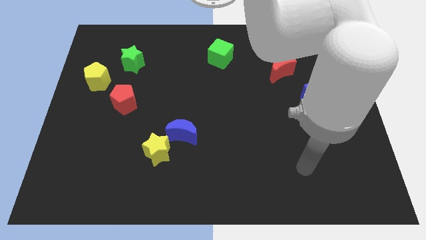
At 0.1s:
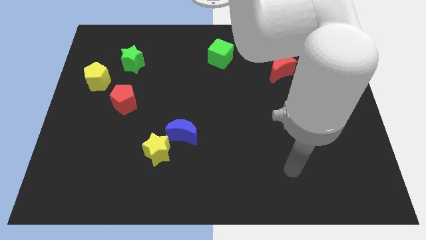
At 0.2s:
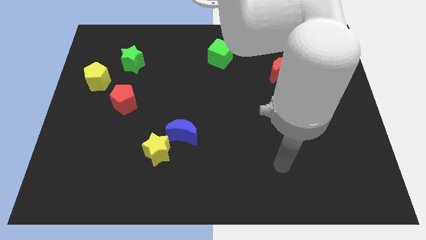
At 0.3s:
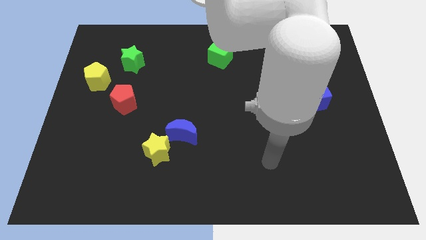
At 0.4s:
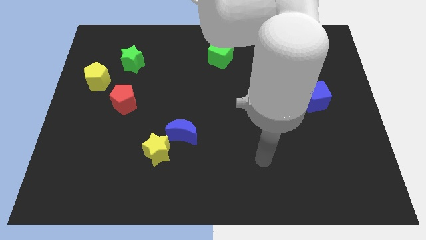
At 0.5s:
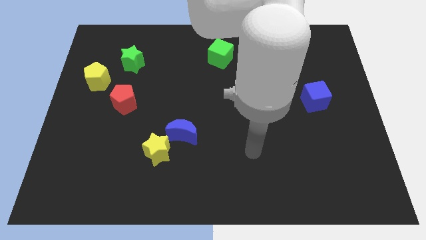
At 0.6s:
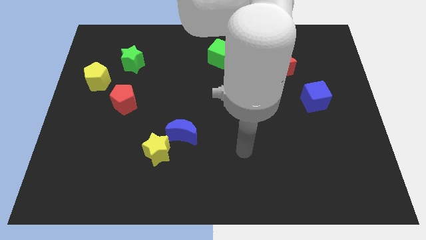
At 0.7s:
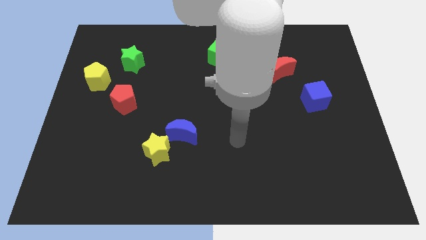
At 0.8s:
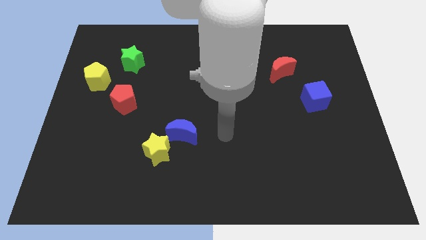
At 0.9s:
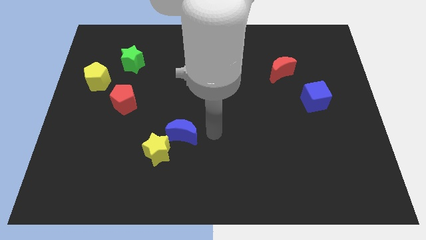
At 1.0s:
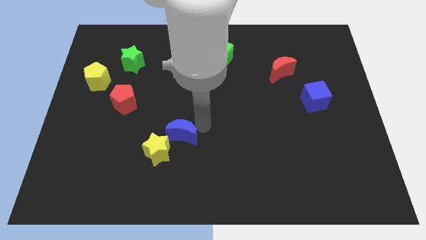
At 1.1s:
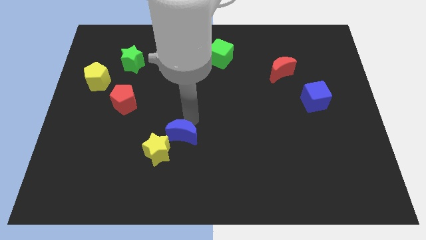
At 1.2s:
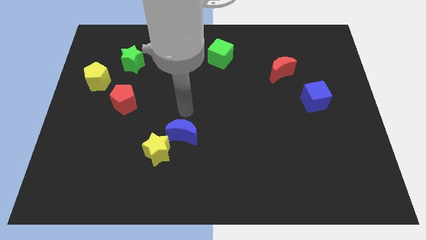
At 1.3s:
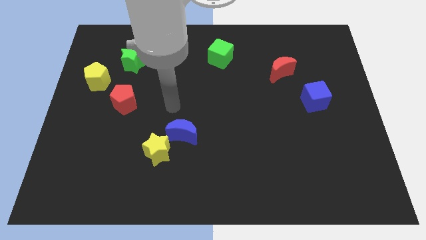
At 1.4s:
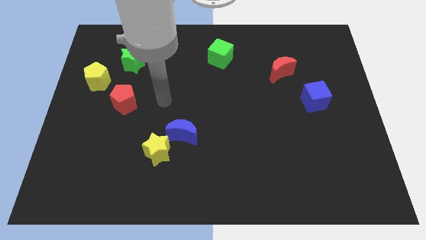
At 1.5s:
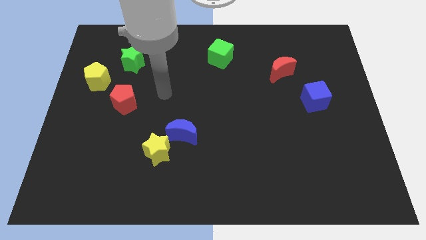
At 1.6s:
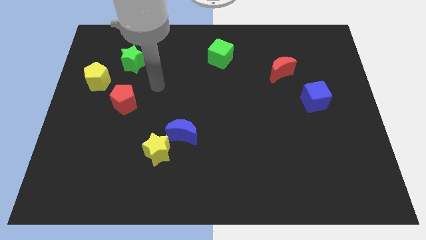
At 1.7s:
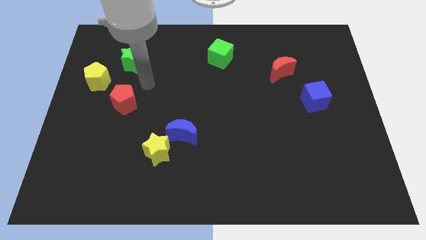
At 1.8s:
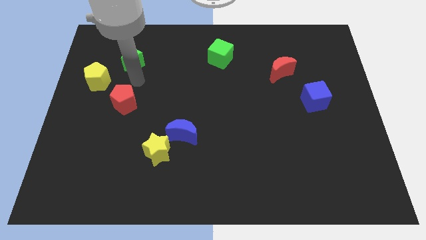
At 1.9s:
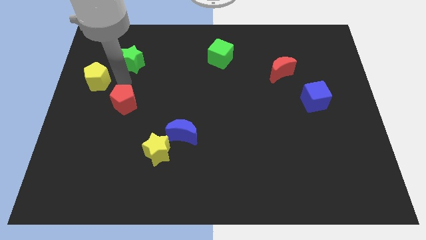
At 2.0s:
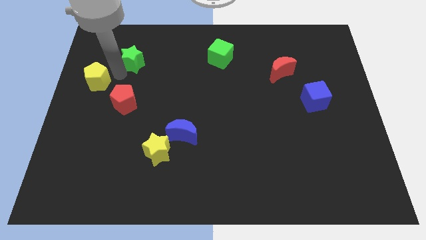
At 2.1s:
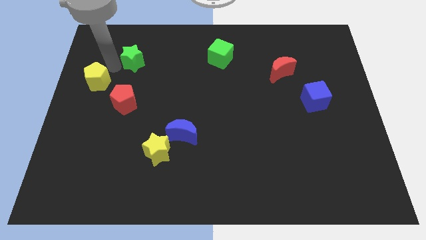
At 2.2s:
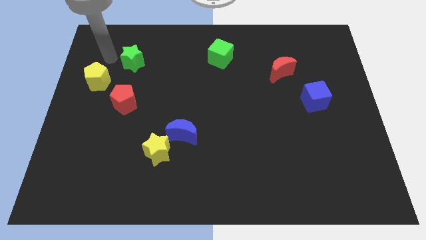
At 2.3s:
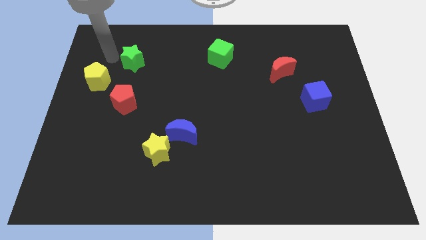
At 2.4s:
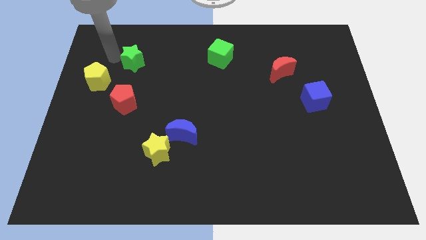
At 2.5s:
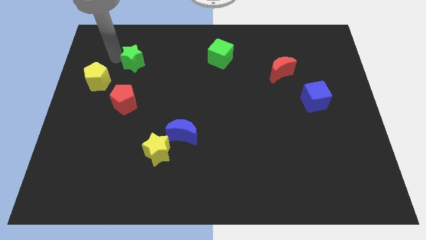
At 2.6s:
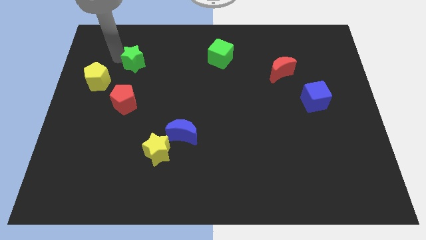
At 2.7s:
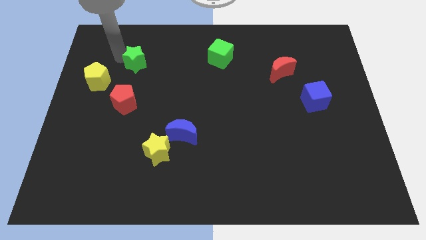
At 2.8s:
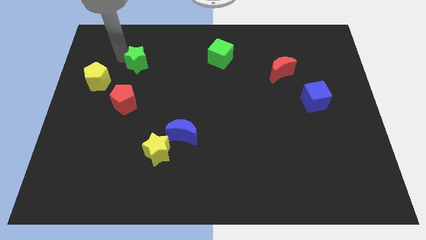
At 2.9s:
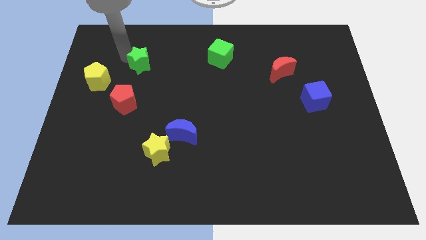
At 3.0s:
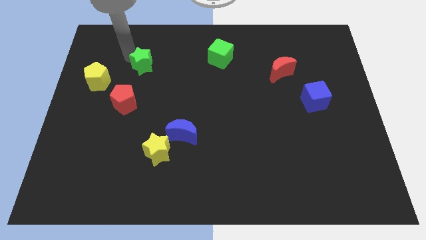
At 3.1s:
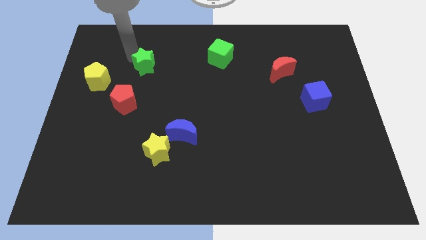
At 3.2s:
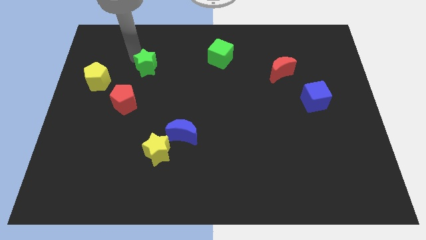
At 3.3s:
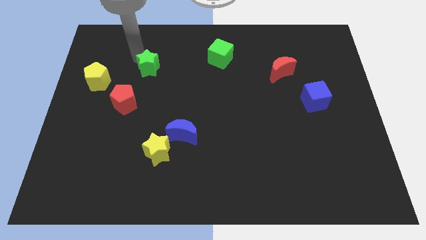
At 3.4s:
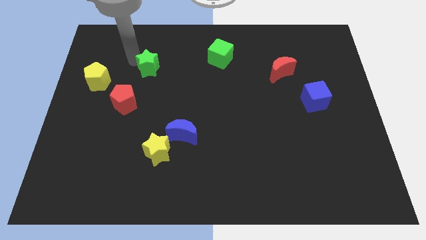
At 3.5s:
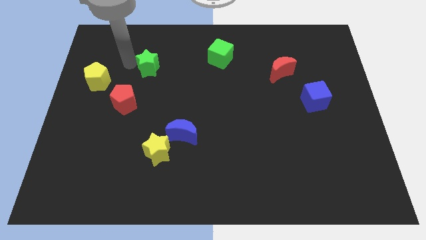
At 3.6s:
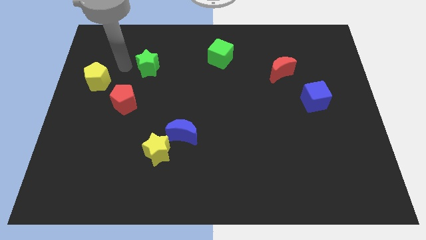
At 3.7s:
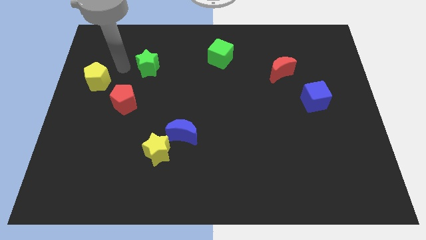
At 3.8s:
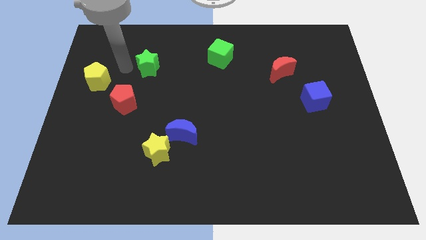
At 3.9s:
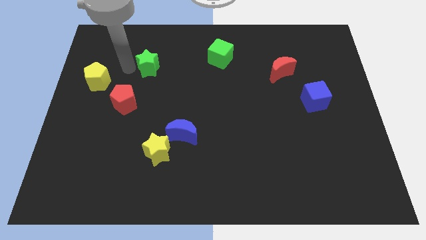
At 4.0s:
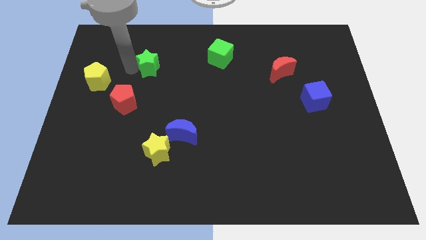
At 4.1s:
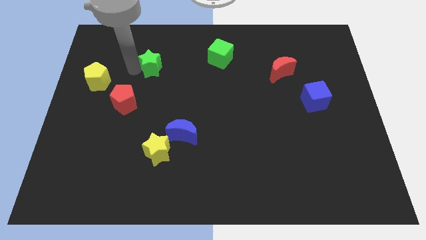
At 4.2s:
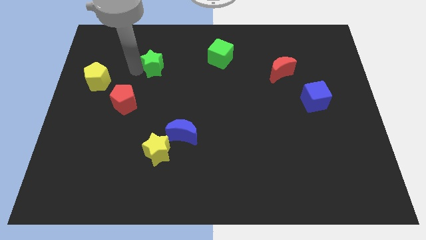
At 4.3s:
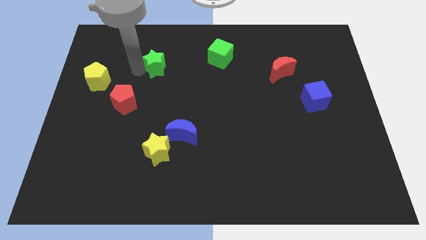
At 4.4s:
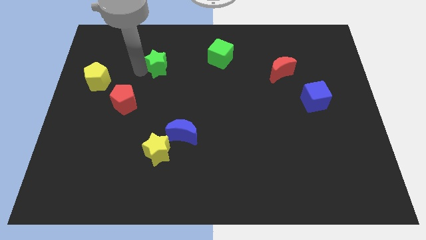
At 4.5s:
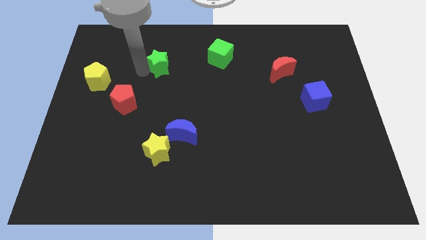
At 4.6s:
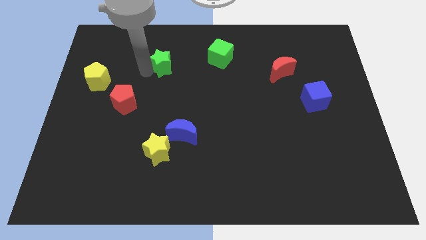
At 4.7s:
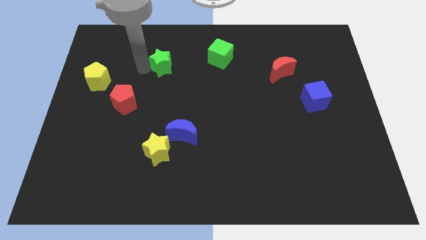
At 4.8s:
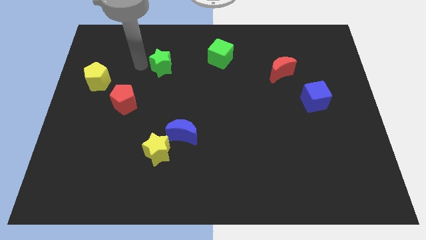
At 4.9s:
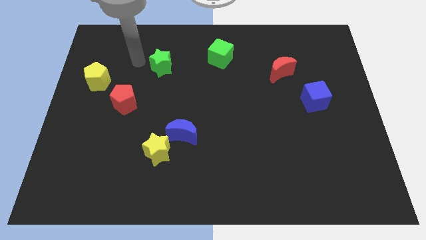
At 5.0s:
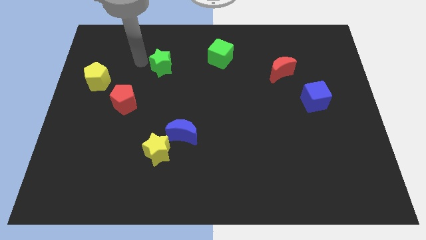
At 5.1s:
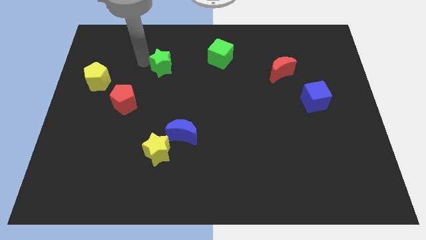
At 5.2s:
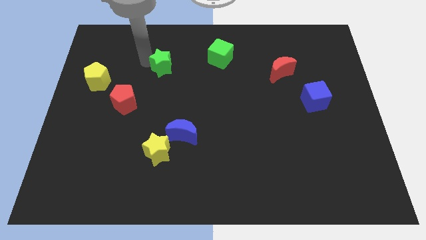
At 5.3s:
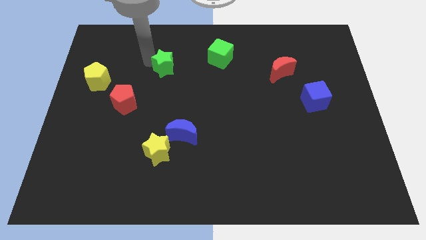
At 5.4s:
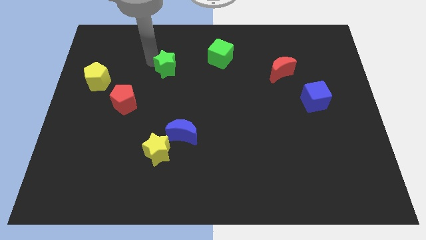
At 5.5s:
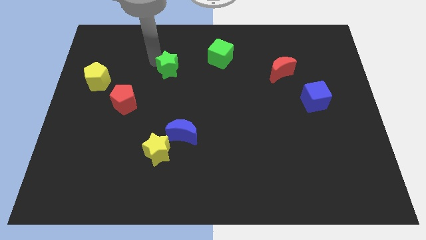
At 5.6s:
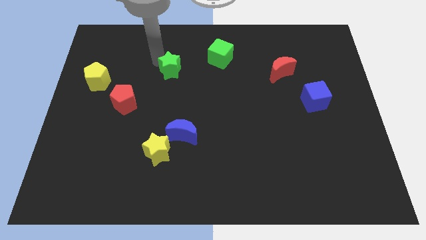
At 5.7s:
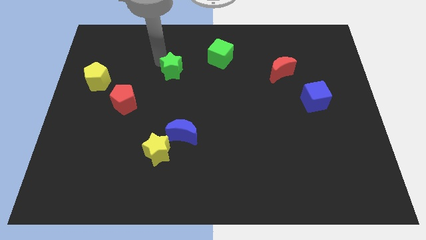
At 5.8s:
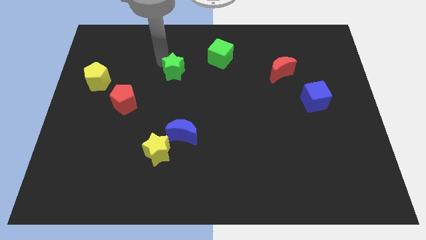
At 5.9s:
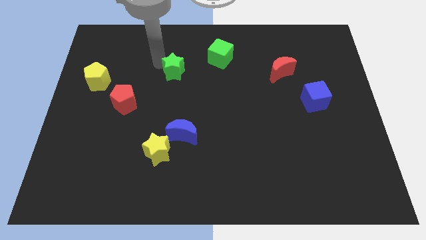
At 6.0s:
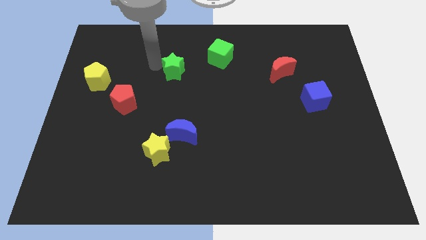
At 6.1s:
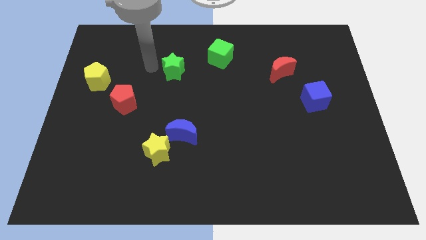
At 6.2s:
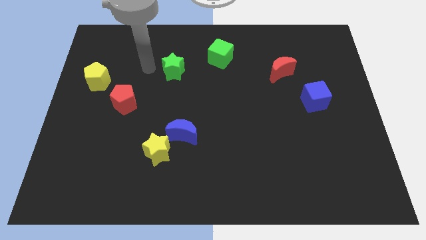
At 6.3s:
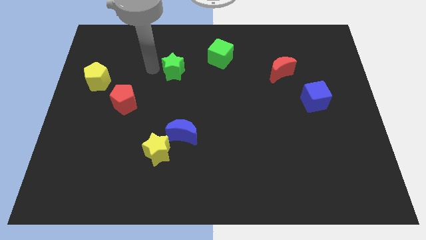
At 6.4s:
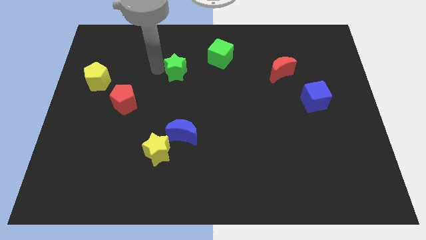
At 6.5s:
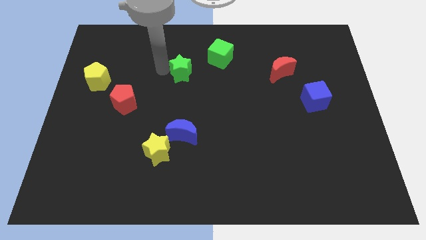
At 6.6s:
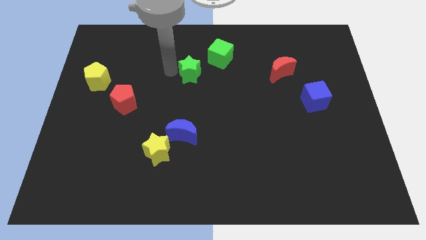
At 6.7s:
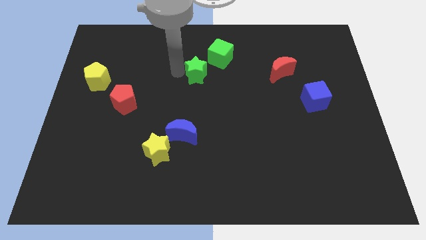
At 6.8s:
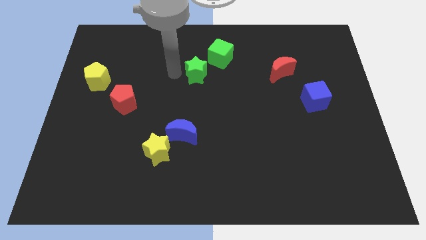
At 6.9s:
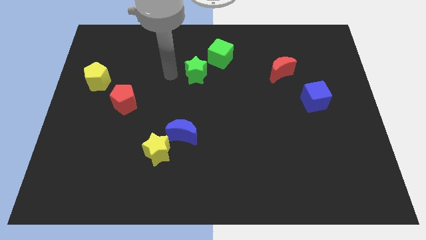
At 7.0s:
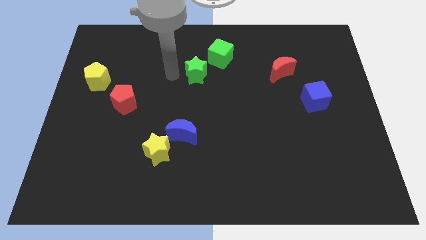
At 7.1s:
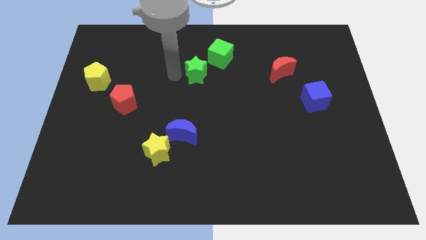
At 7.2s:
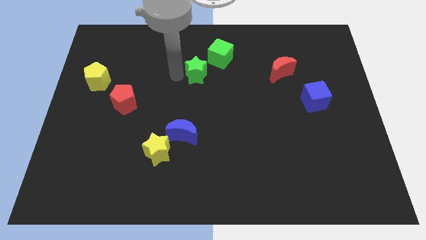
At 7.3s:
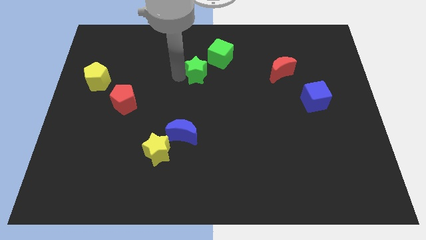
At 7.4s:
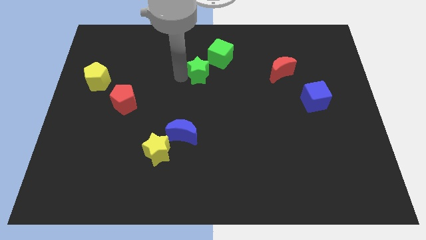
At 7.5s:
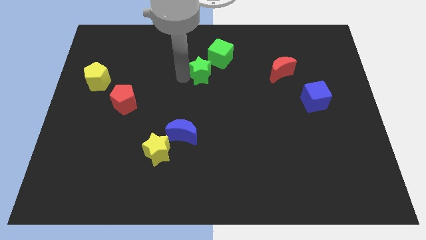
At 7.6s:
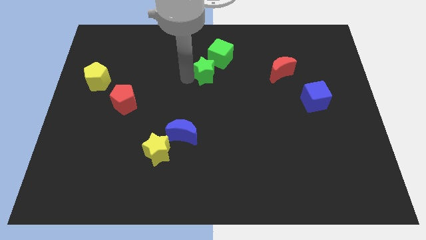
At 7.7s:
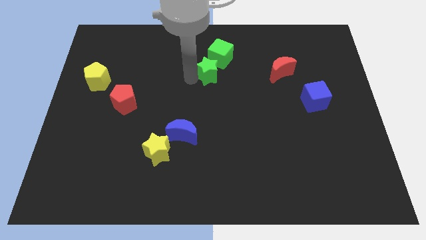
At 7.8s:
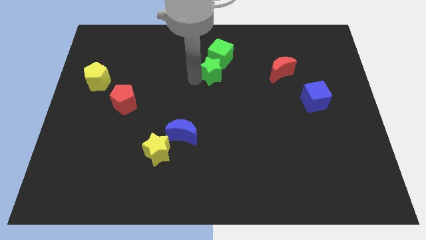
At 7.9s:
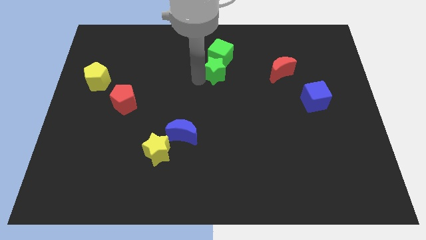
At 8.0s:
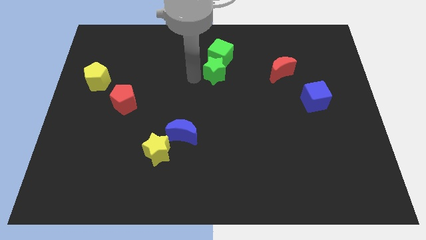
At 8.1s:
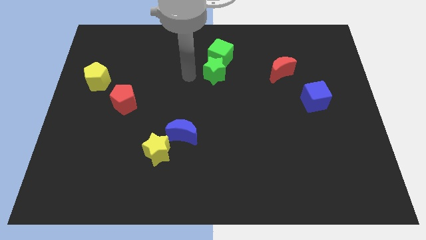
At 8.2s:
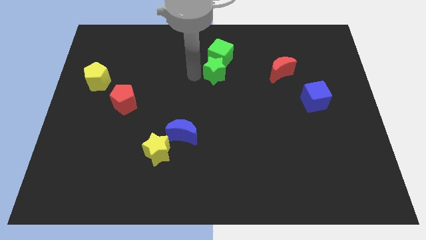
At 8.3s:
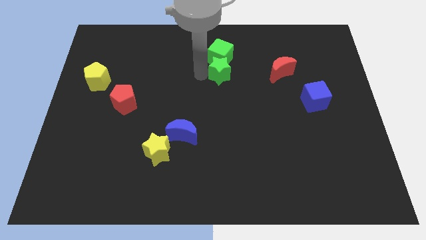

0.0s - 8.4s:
push the green star to the bottom right side of the green cube
